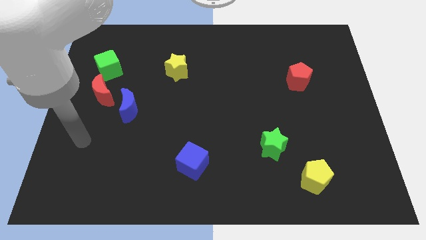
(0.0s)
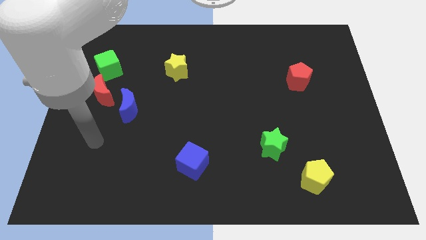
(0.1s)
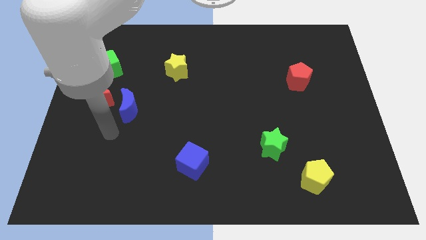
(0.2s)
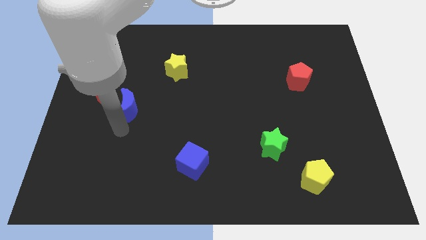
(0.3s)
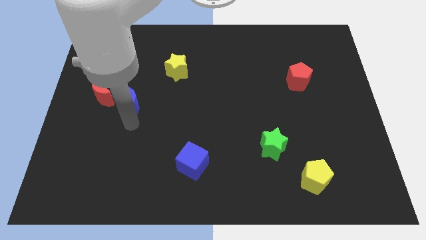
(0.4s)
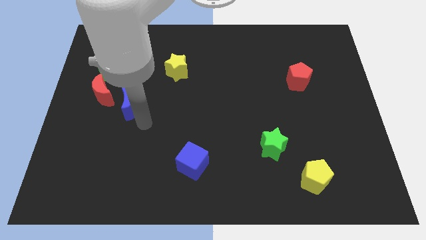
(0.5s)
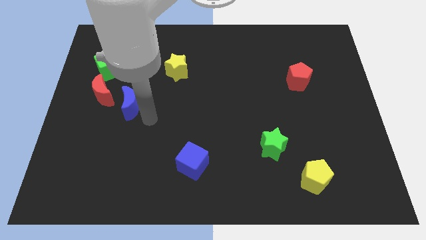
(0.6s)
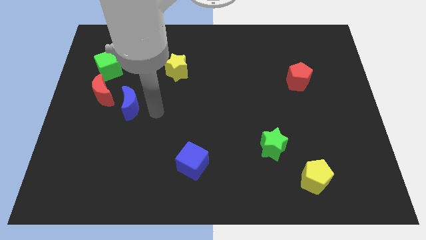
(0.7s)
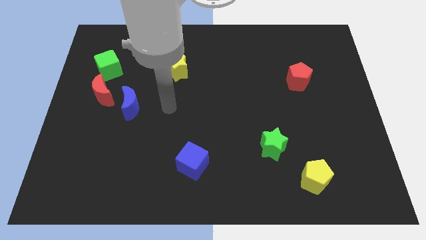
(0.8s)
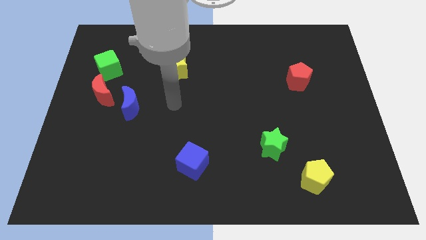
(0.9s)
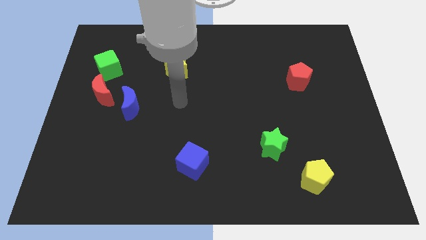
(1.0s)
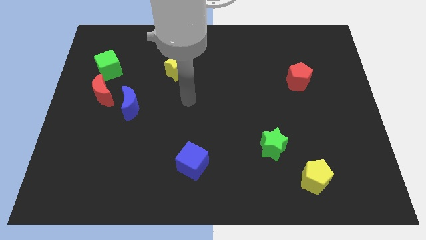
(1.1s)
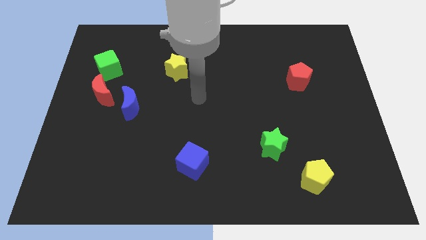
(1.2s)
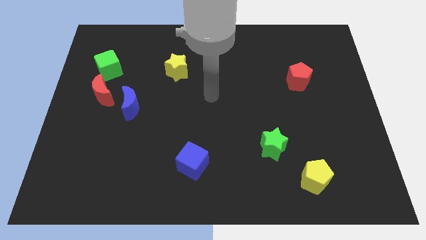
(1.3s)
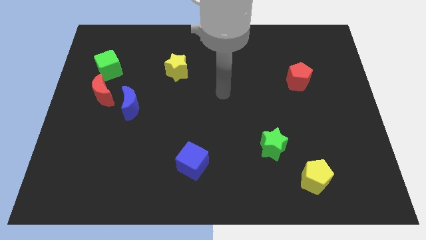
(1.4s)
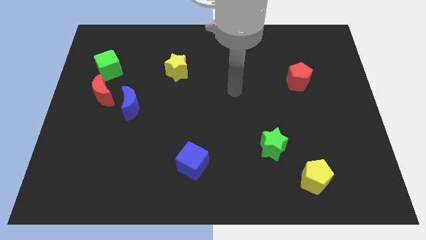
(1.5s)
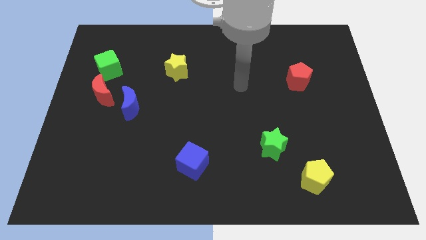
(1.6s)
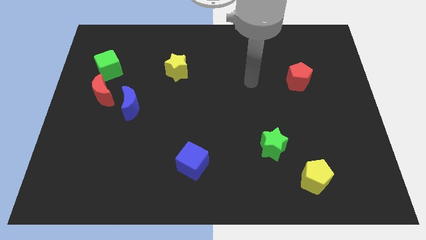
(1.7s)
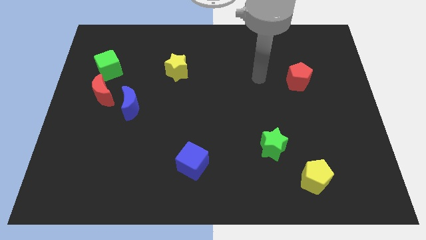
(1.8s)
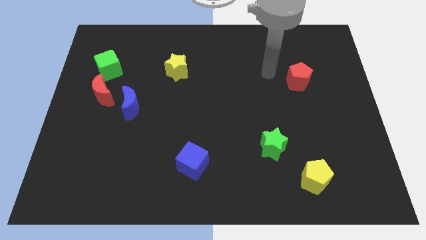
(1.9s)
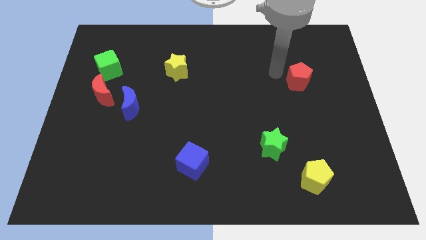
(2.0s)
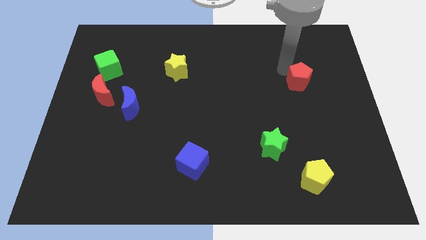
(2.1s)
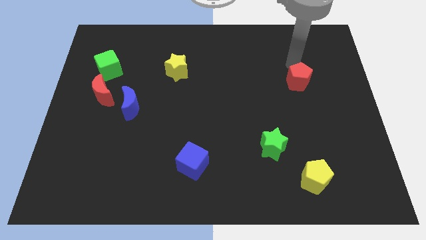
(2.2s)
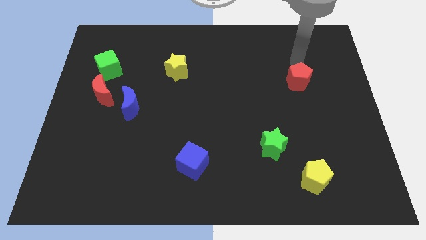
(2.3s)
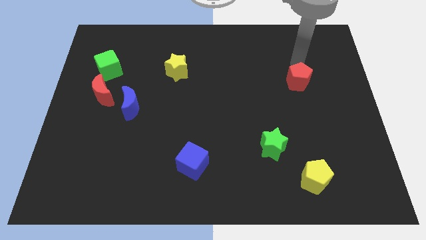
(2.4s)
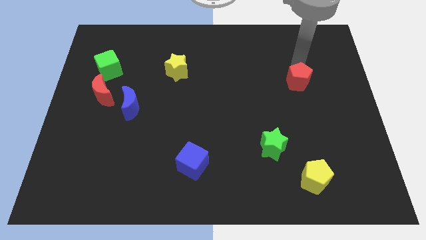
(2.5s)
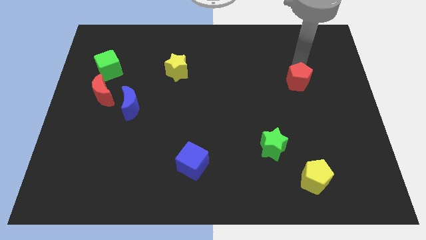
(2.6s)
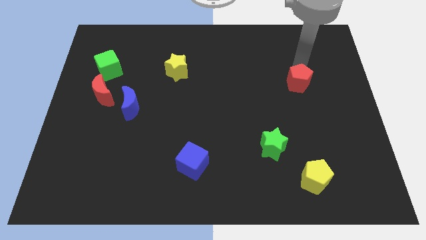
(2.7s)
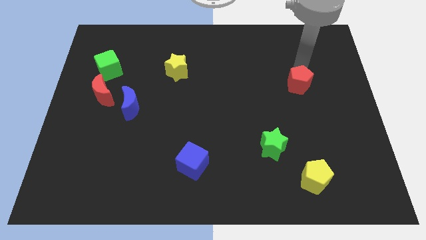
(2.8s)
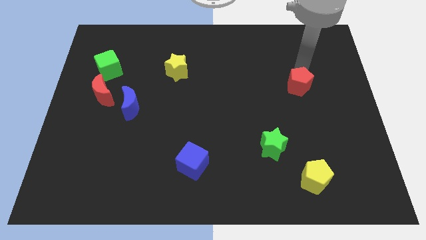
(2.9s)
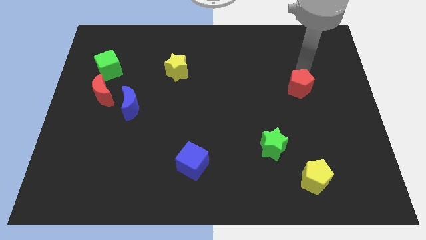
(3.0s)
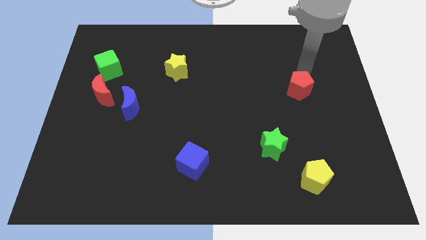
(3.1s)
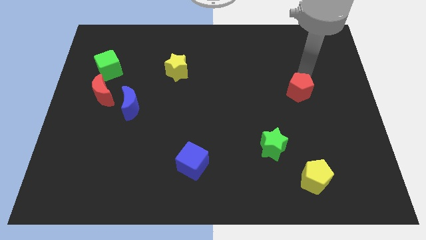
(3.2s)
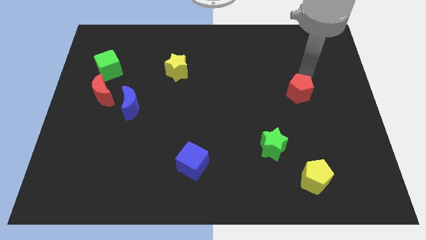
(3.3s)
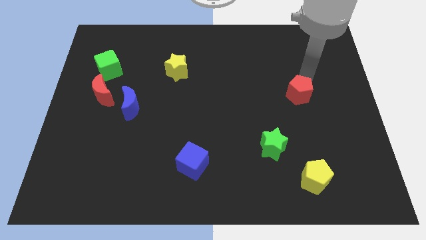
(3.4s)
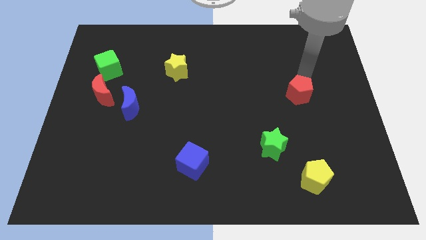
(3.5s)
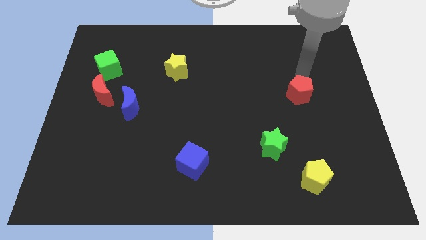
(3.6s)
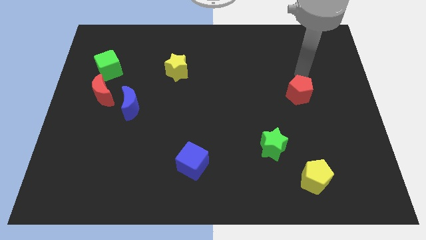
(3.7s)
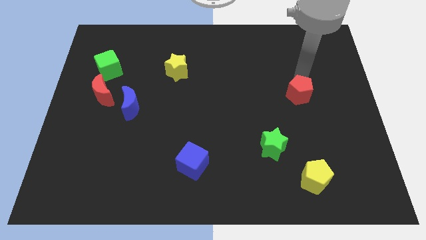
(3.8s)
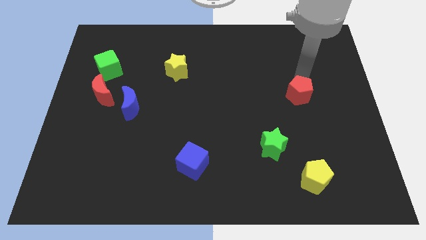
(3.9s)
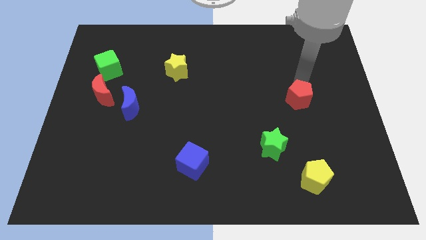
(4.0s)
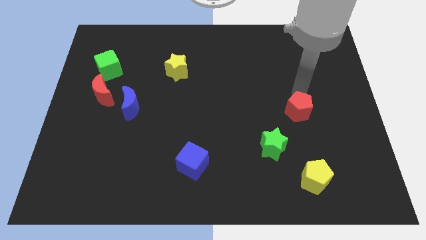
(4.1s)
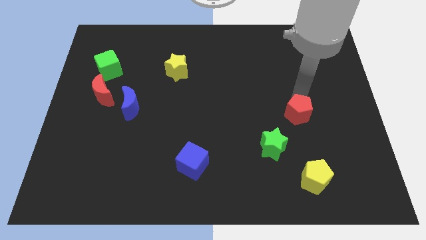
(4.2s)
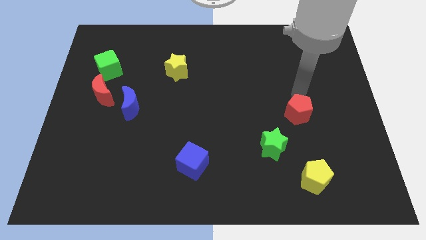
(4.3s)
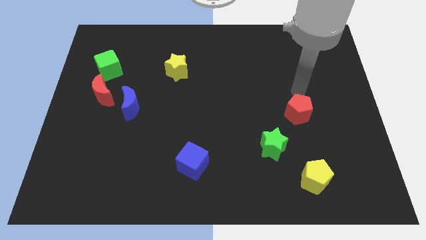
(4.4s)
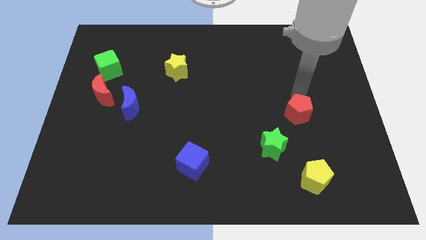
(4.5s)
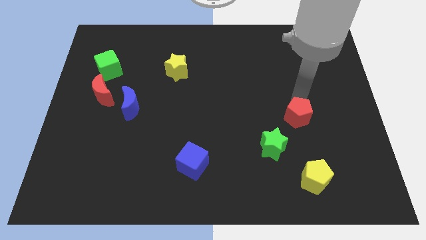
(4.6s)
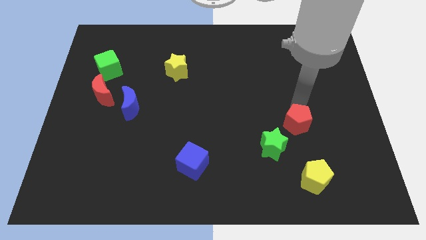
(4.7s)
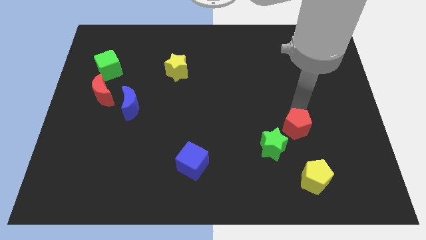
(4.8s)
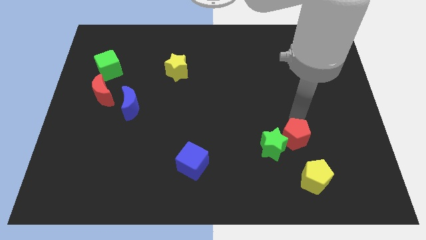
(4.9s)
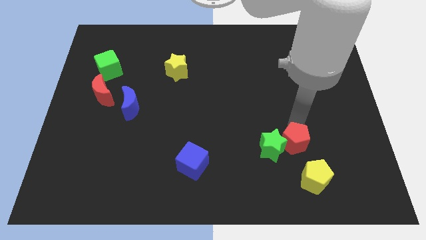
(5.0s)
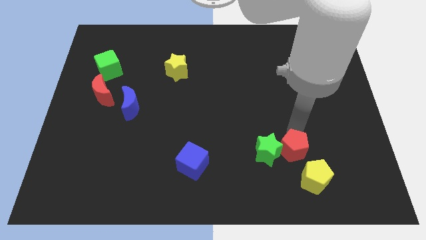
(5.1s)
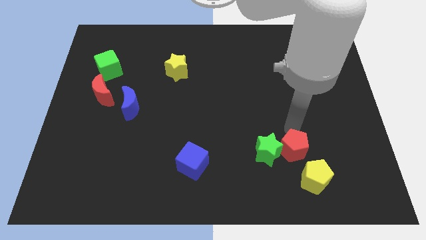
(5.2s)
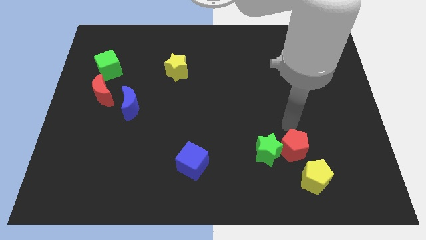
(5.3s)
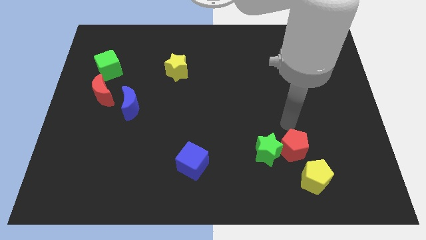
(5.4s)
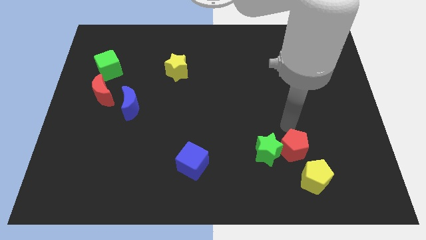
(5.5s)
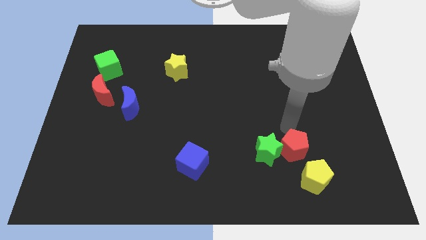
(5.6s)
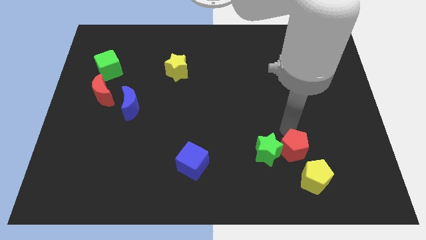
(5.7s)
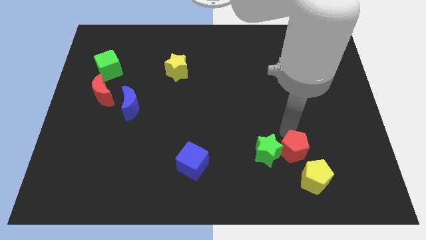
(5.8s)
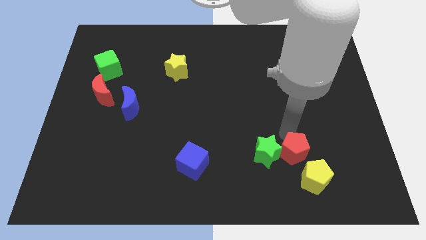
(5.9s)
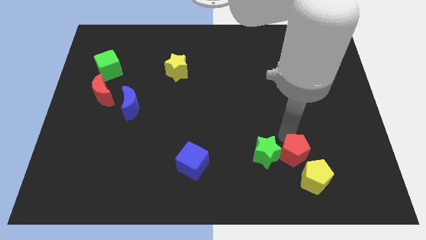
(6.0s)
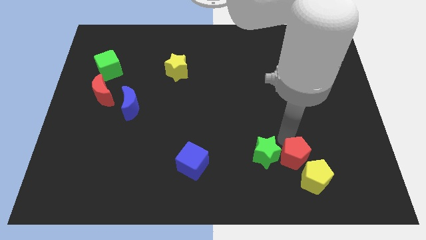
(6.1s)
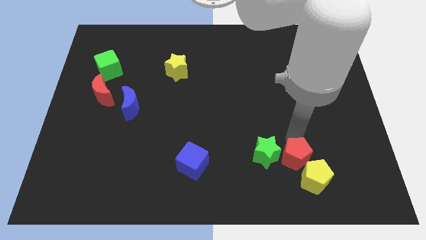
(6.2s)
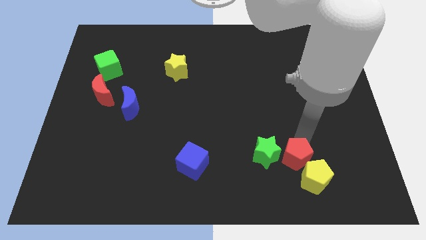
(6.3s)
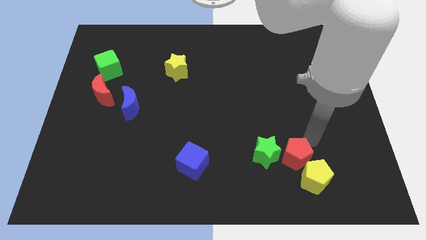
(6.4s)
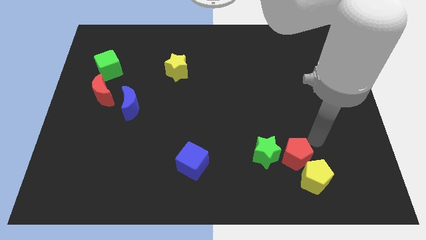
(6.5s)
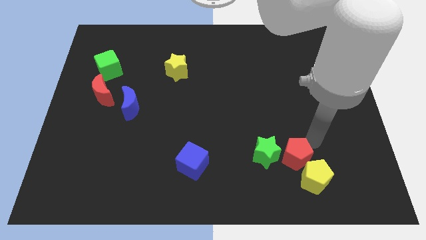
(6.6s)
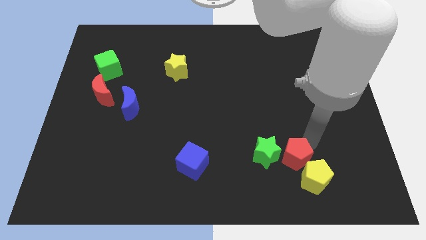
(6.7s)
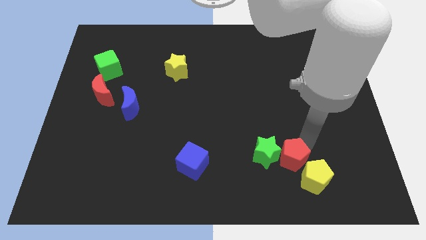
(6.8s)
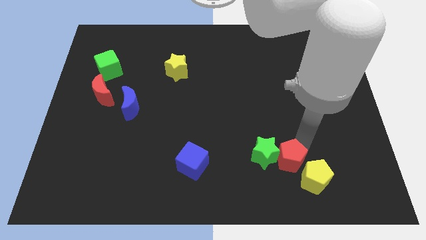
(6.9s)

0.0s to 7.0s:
move the red pentagon to the left side of the yellow pentagon

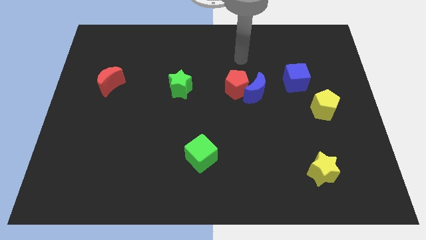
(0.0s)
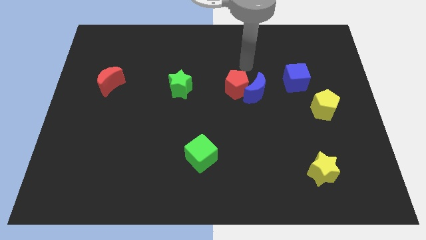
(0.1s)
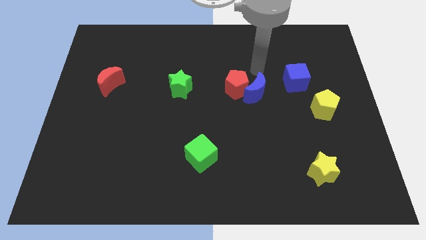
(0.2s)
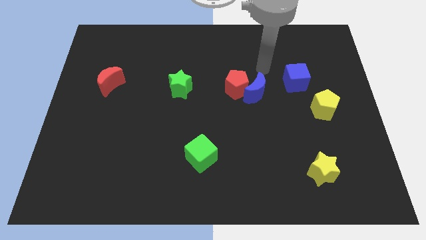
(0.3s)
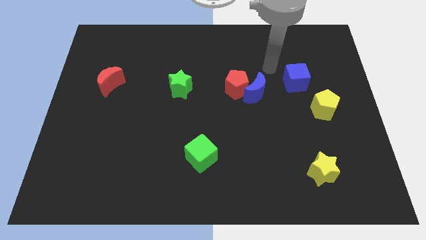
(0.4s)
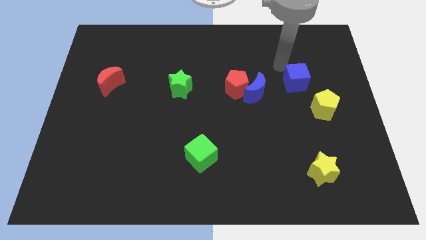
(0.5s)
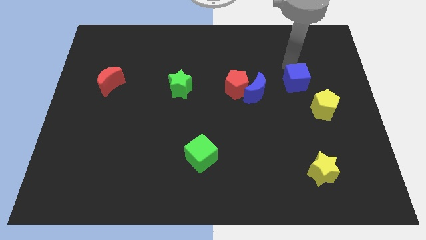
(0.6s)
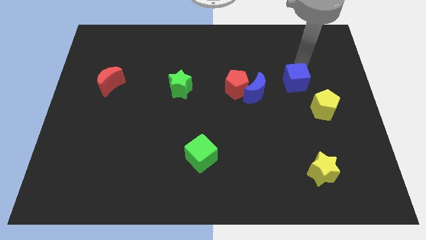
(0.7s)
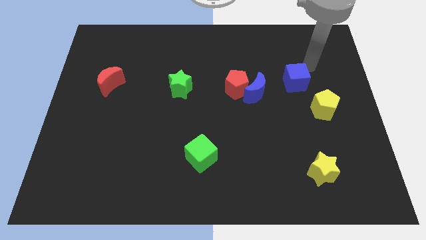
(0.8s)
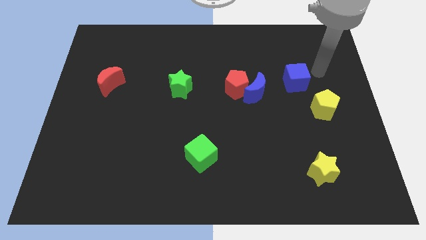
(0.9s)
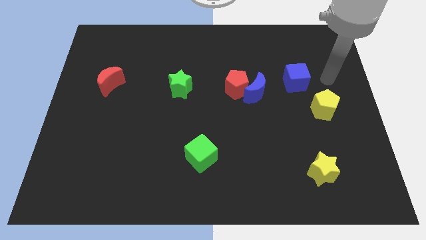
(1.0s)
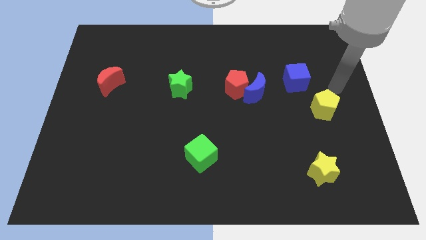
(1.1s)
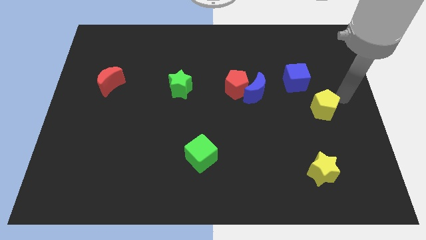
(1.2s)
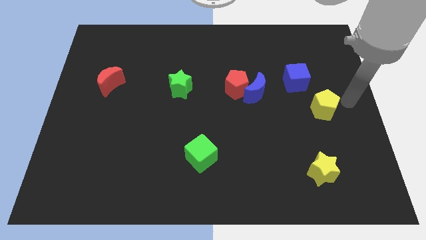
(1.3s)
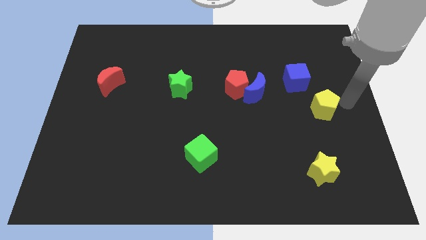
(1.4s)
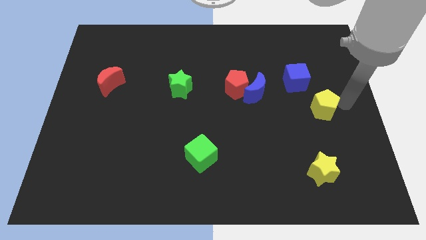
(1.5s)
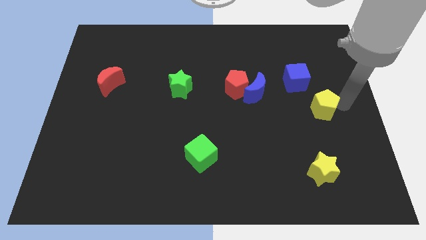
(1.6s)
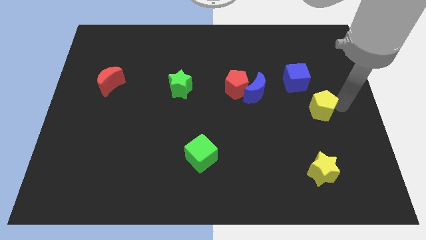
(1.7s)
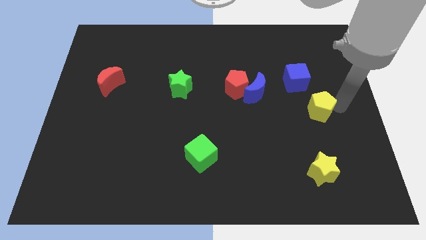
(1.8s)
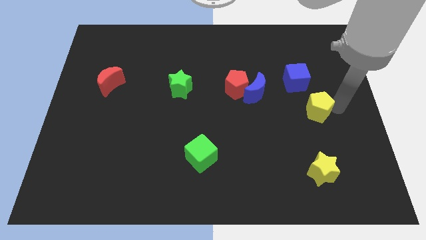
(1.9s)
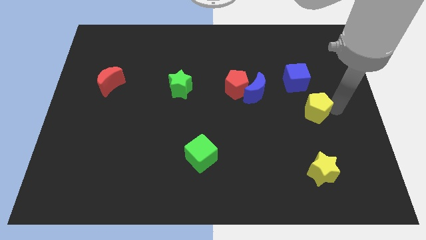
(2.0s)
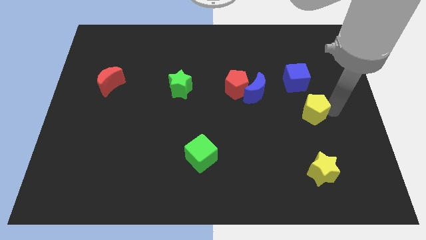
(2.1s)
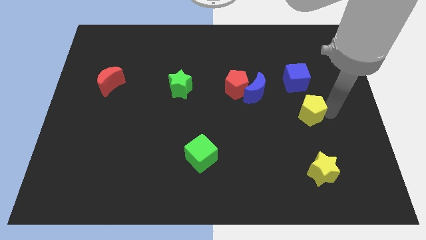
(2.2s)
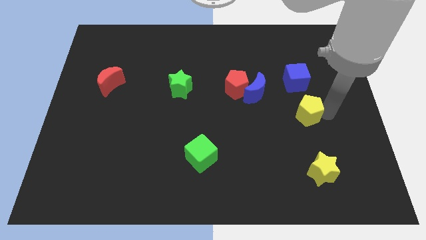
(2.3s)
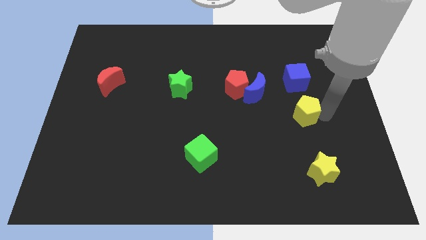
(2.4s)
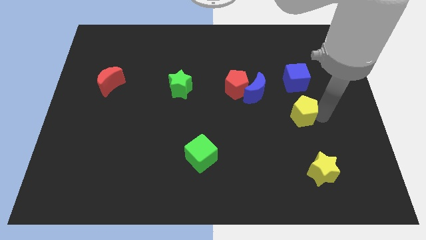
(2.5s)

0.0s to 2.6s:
put the yellow pentagon diagonally down and to the right of the blue moon
